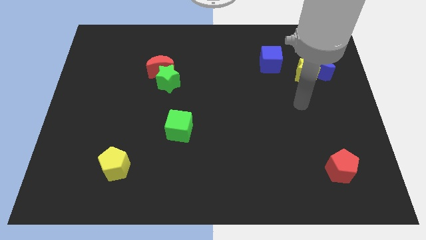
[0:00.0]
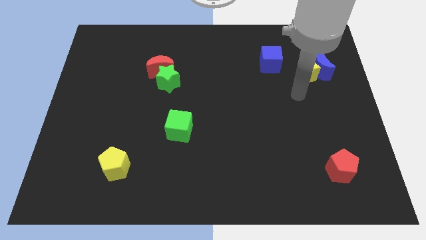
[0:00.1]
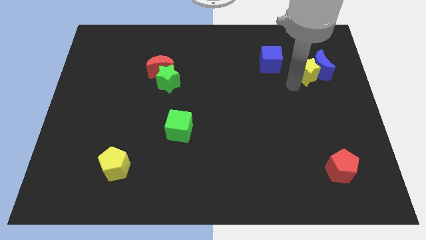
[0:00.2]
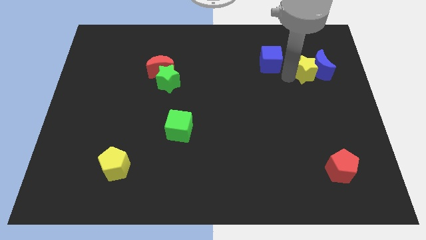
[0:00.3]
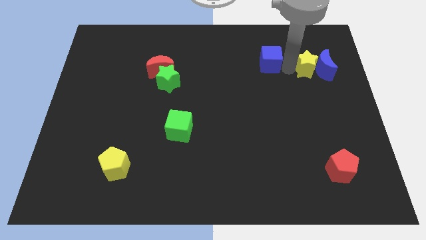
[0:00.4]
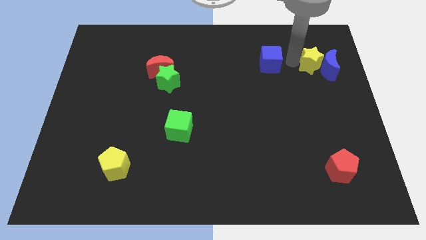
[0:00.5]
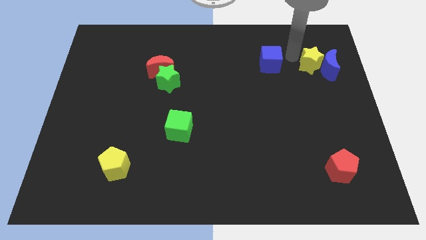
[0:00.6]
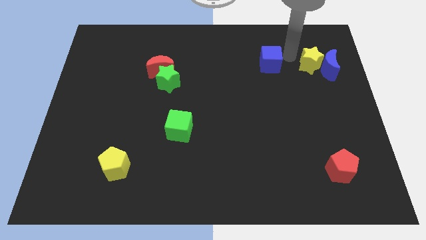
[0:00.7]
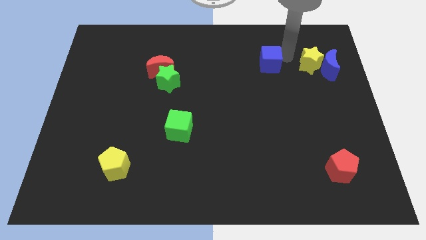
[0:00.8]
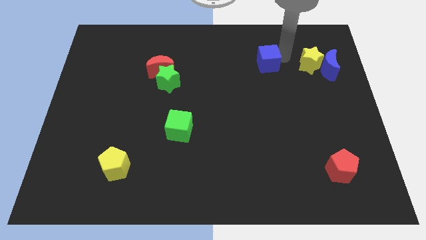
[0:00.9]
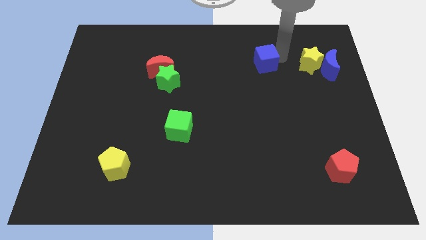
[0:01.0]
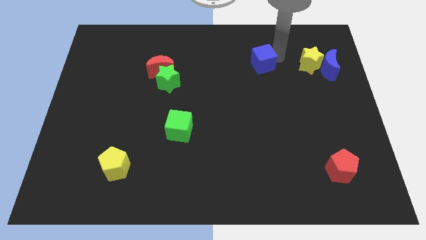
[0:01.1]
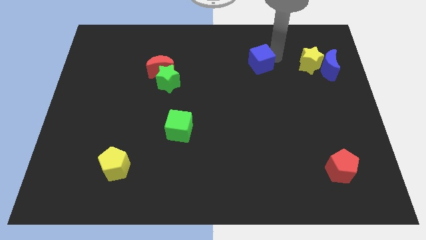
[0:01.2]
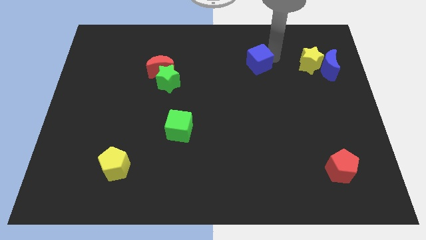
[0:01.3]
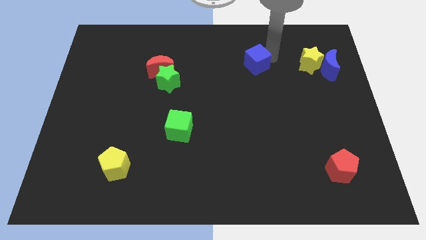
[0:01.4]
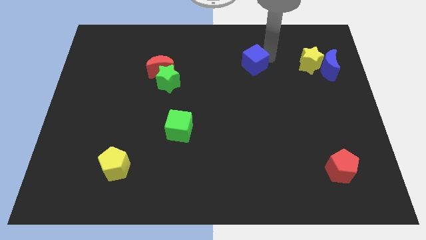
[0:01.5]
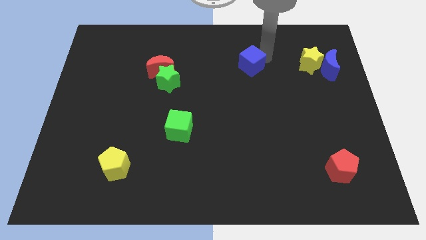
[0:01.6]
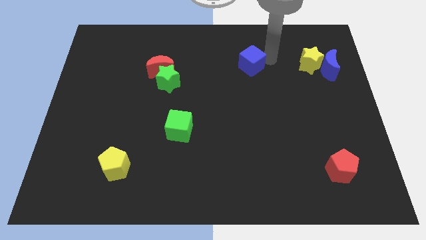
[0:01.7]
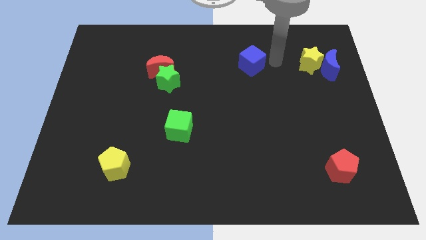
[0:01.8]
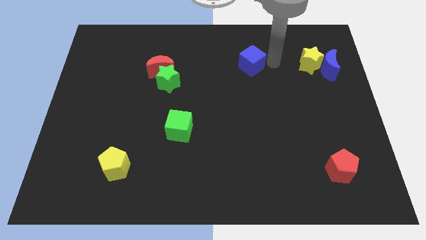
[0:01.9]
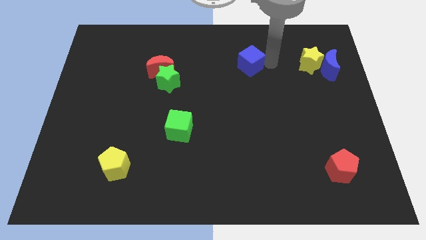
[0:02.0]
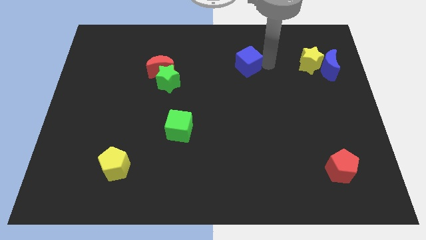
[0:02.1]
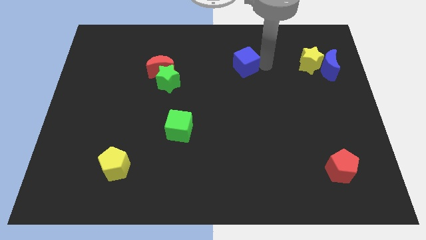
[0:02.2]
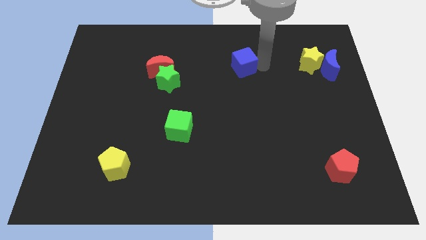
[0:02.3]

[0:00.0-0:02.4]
move the blue cube a little to the left

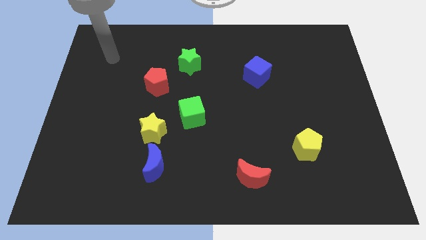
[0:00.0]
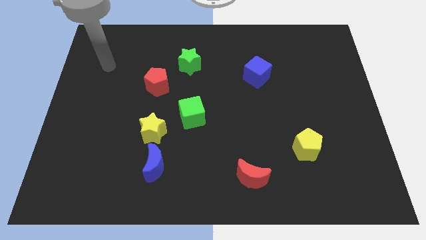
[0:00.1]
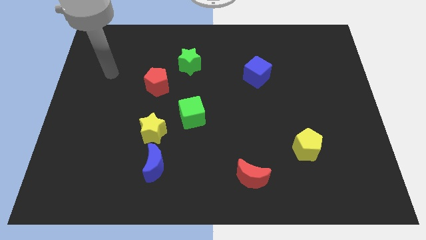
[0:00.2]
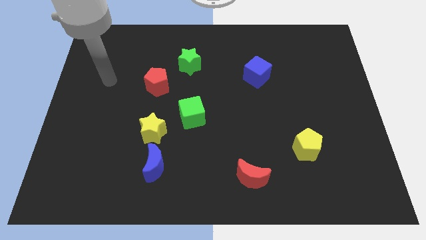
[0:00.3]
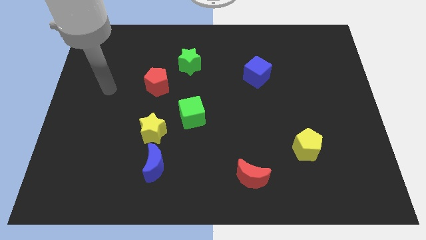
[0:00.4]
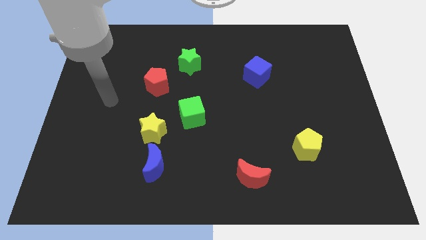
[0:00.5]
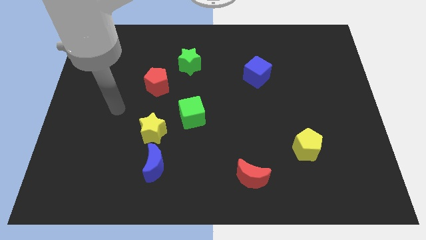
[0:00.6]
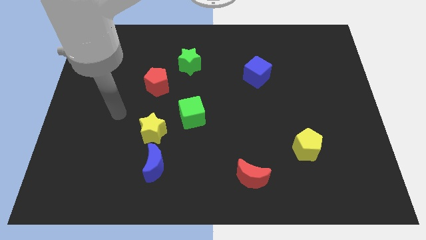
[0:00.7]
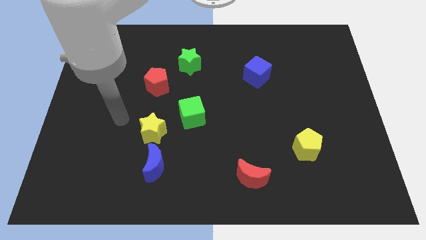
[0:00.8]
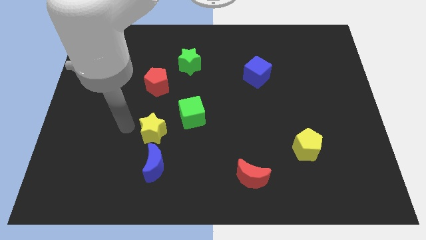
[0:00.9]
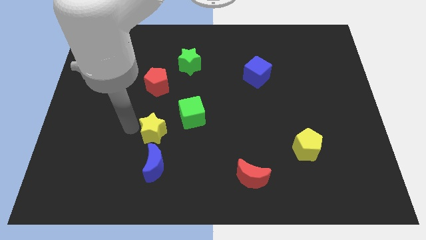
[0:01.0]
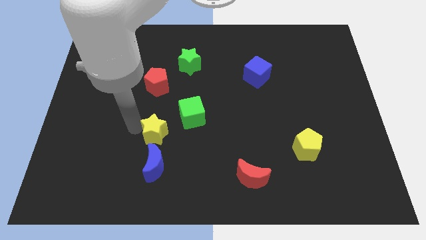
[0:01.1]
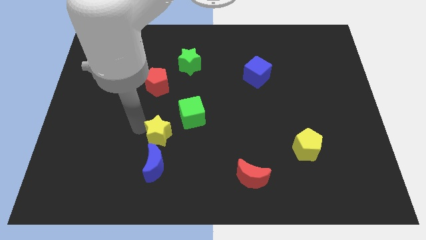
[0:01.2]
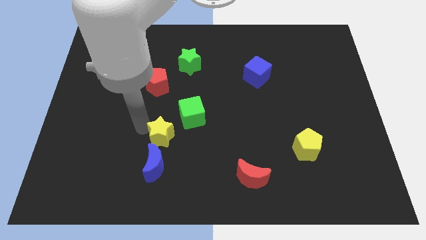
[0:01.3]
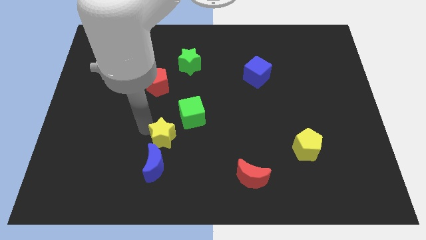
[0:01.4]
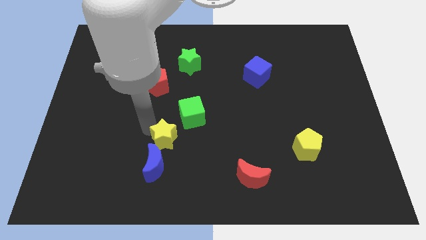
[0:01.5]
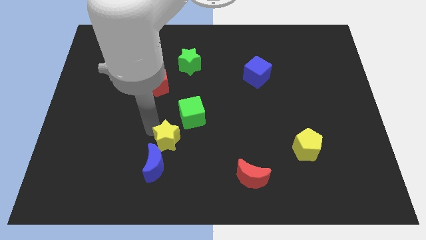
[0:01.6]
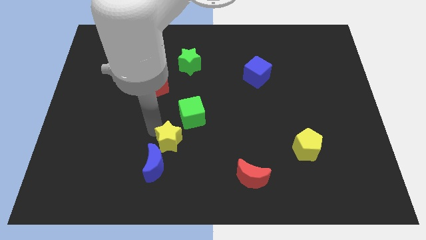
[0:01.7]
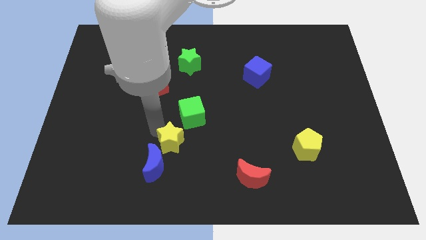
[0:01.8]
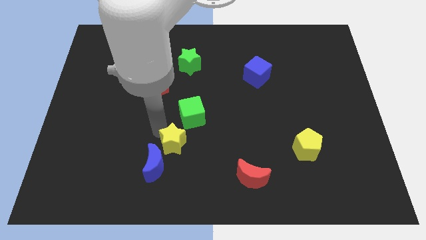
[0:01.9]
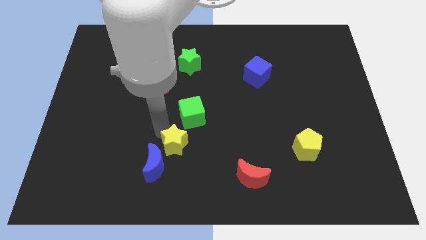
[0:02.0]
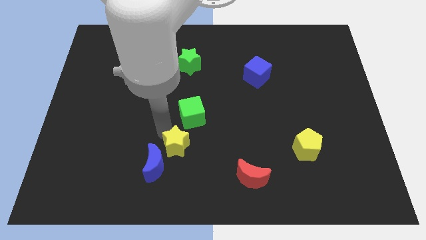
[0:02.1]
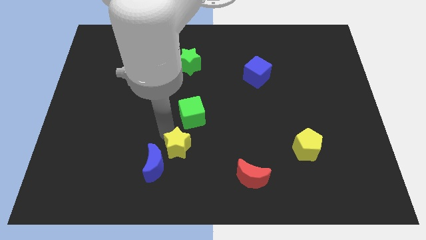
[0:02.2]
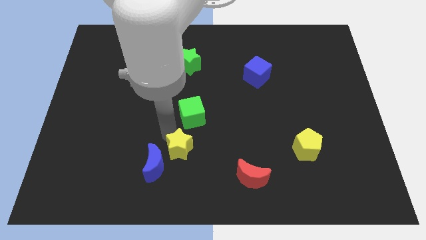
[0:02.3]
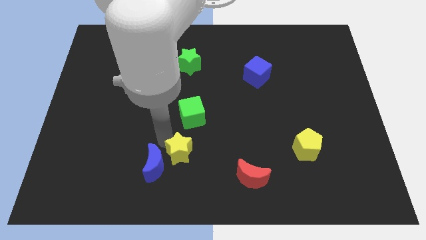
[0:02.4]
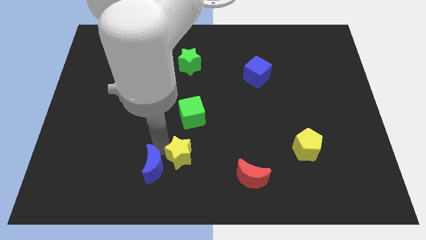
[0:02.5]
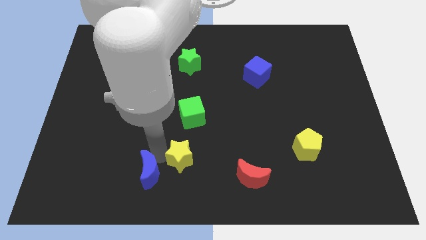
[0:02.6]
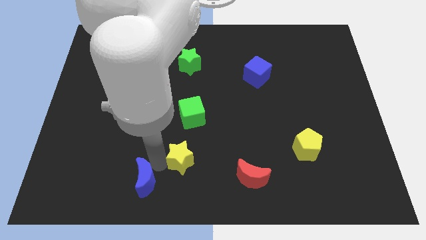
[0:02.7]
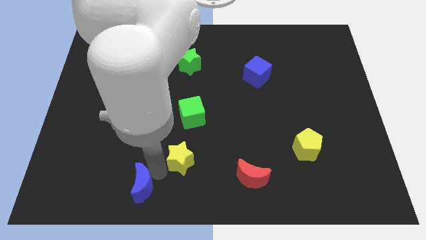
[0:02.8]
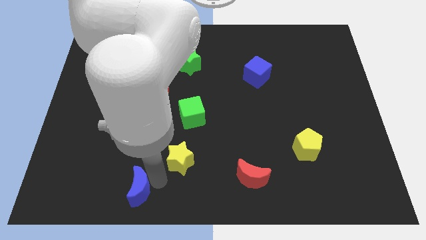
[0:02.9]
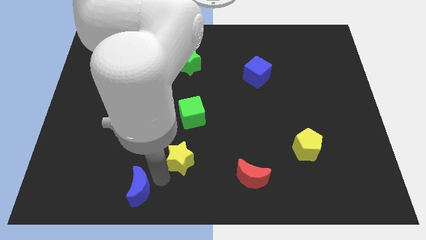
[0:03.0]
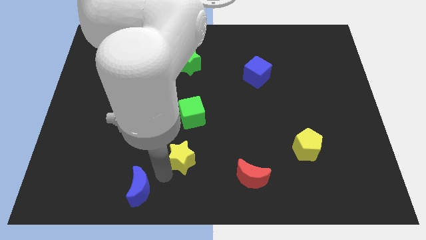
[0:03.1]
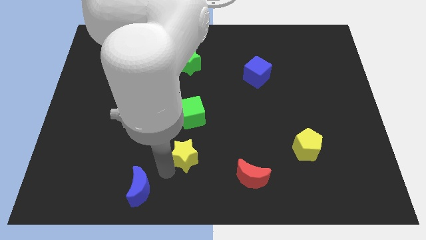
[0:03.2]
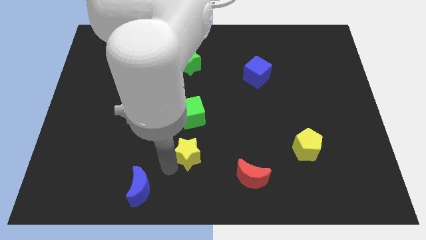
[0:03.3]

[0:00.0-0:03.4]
move the yellow star slightly right

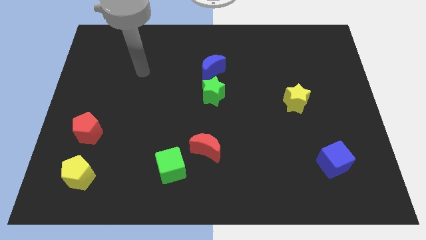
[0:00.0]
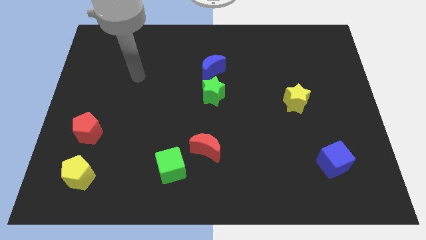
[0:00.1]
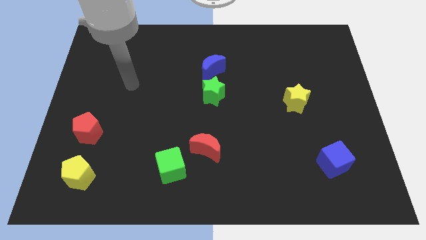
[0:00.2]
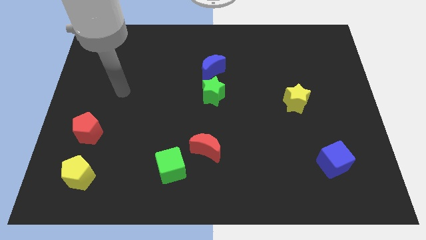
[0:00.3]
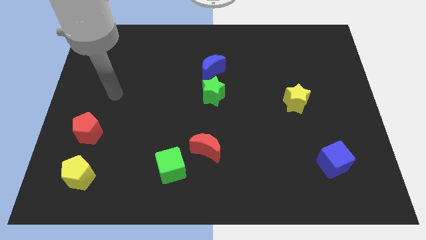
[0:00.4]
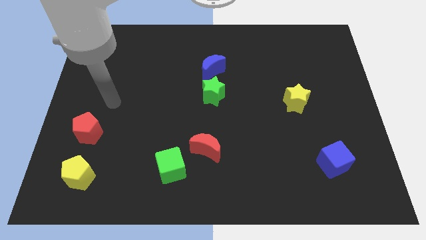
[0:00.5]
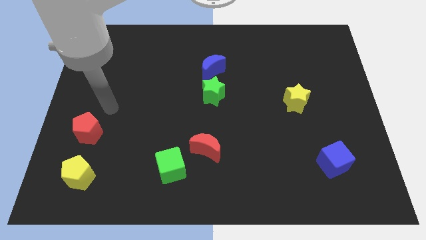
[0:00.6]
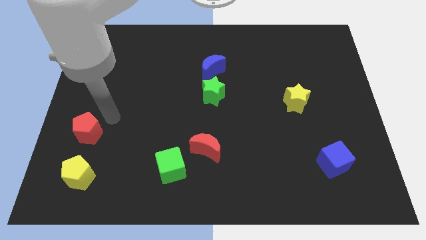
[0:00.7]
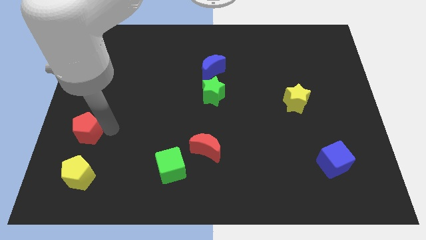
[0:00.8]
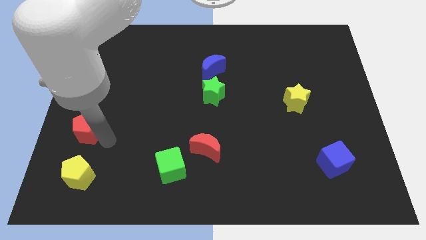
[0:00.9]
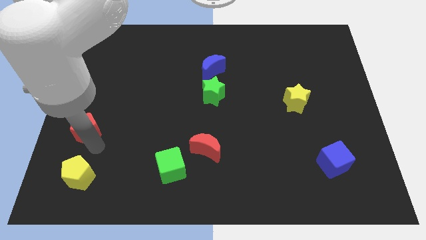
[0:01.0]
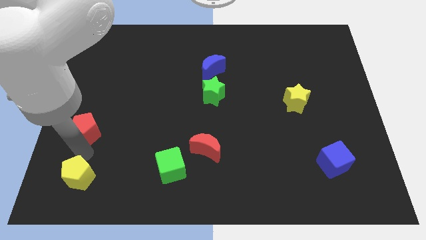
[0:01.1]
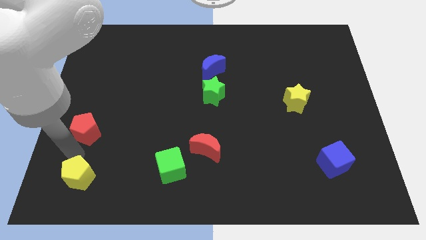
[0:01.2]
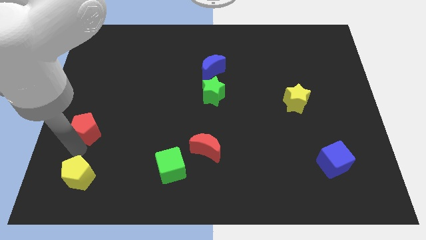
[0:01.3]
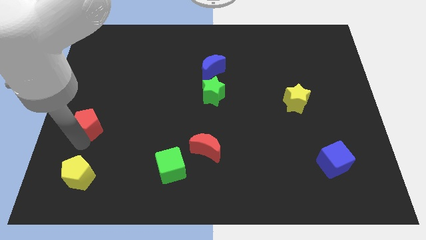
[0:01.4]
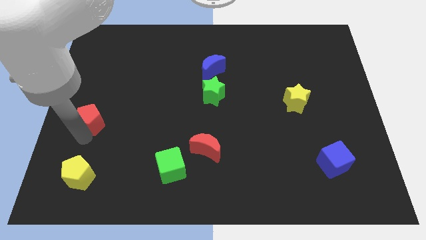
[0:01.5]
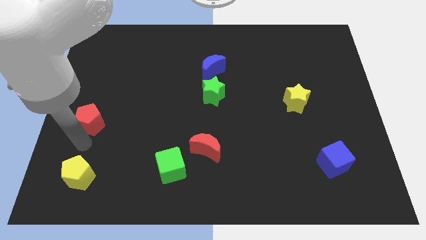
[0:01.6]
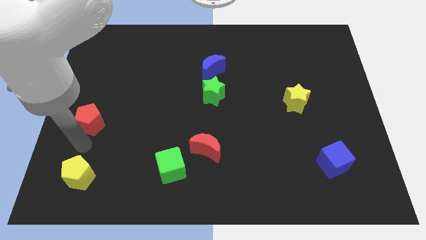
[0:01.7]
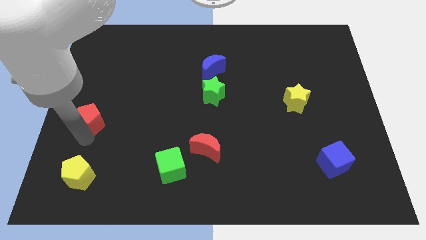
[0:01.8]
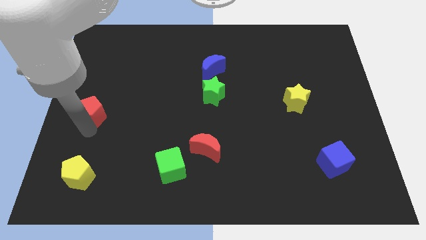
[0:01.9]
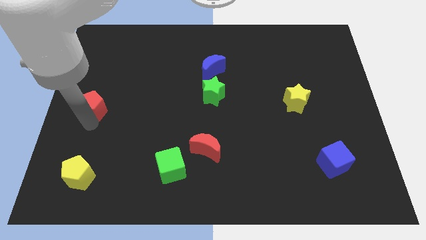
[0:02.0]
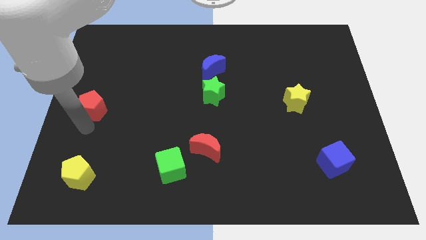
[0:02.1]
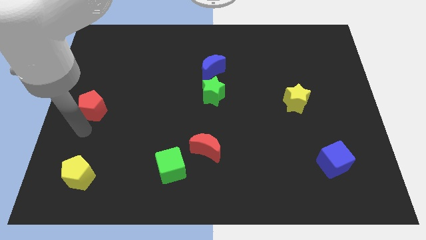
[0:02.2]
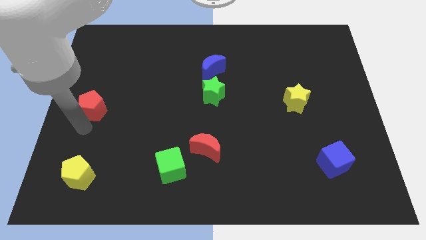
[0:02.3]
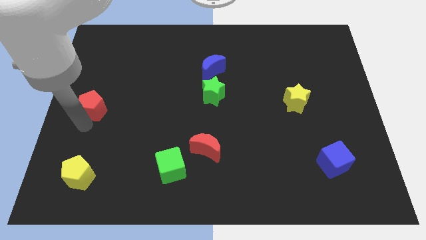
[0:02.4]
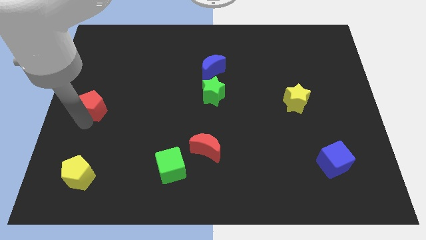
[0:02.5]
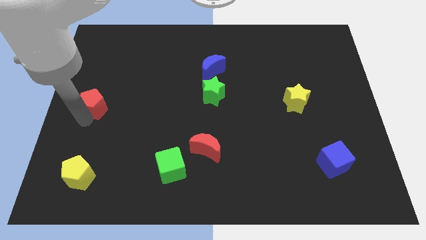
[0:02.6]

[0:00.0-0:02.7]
slightly push the red pentagon up
